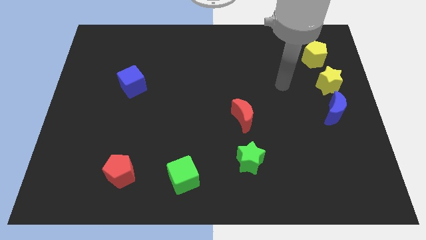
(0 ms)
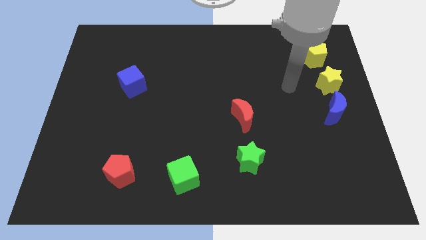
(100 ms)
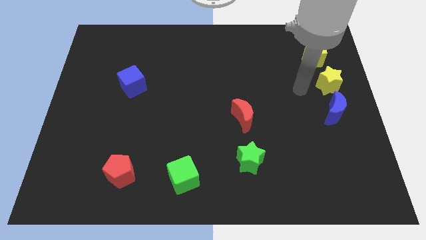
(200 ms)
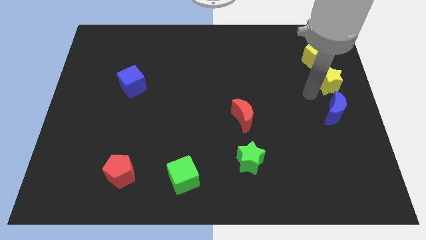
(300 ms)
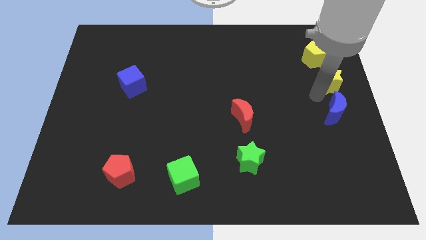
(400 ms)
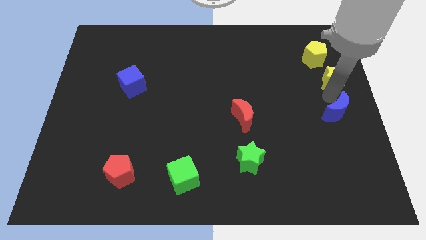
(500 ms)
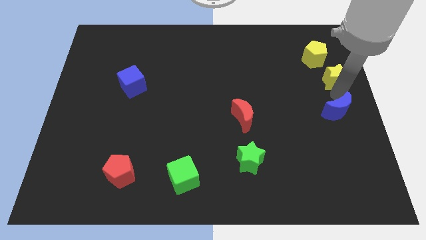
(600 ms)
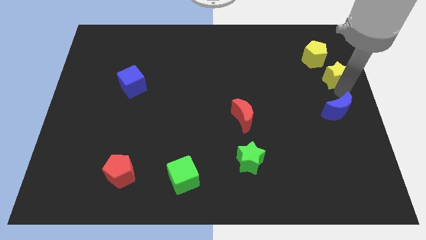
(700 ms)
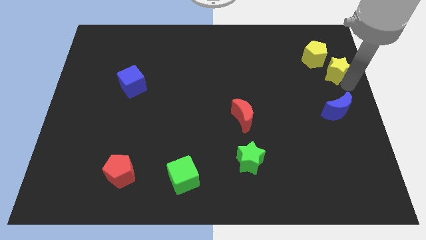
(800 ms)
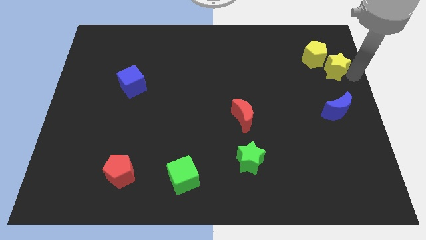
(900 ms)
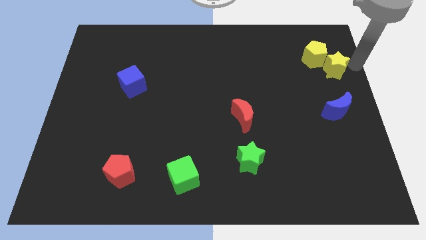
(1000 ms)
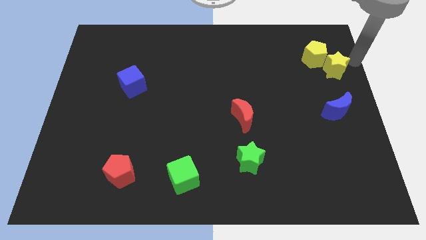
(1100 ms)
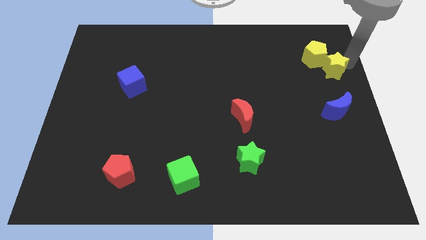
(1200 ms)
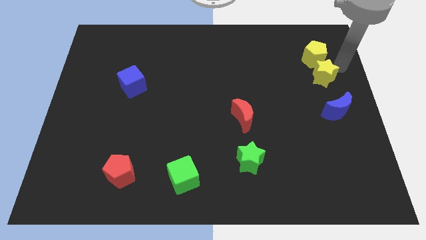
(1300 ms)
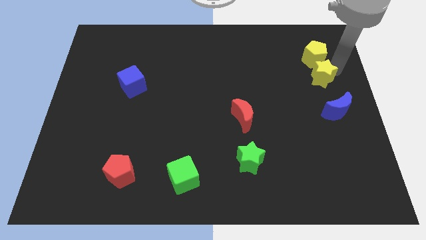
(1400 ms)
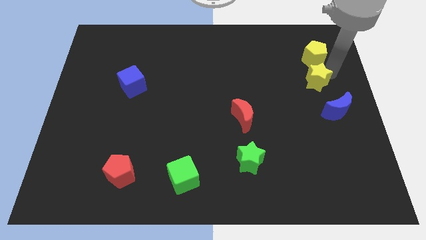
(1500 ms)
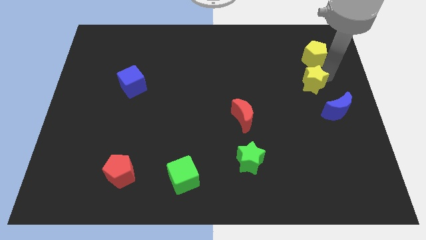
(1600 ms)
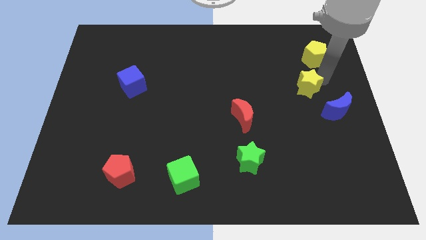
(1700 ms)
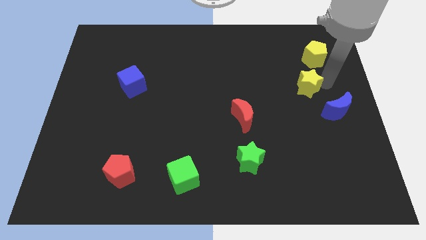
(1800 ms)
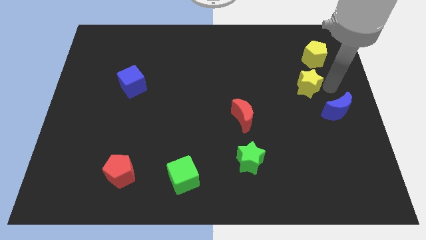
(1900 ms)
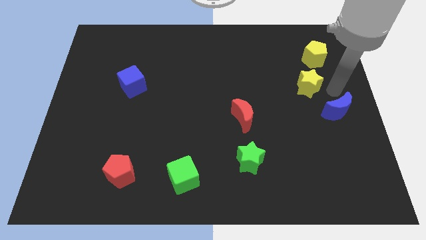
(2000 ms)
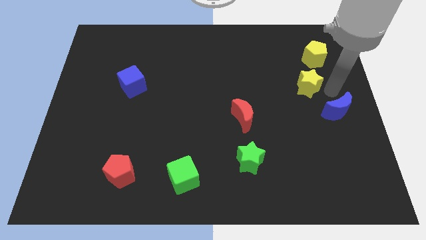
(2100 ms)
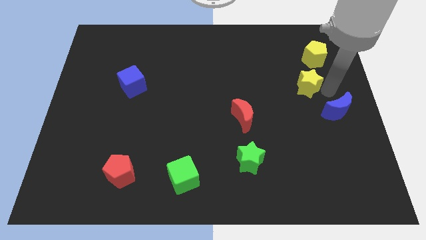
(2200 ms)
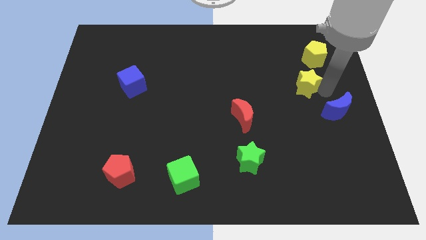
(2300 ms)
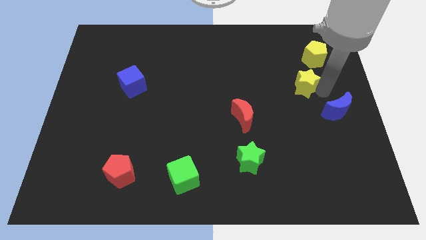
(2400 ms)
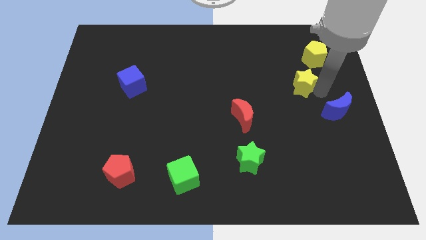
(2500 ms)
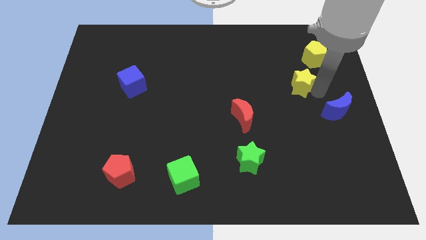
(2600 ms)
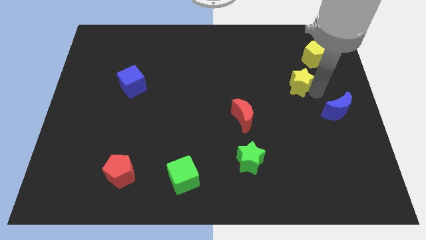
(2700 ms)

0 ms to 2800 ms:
slightly slide the yellow star left

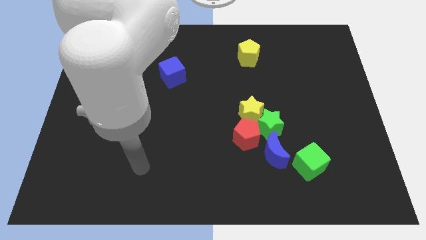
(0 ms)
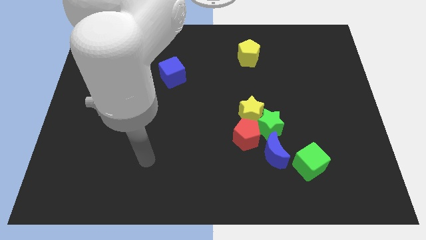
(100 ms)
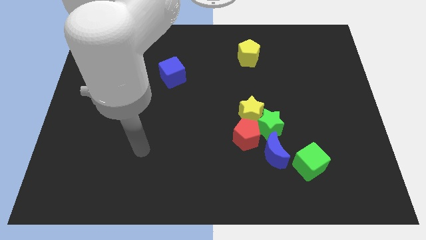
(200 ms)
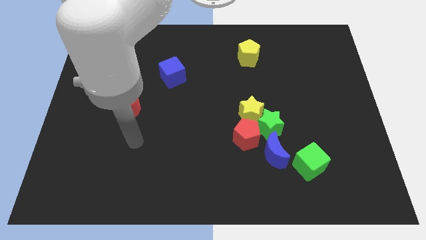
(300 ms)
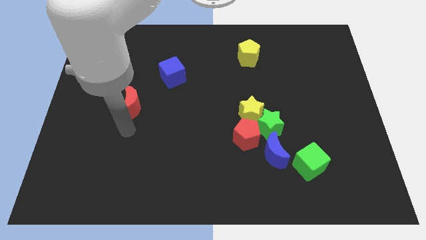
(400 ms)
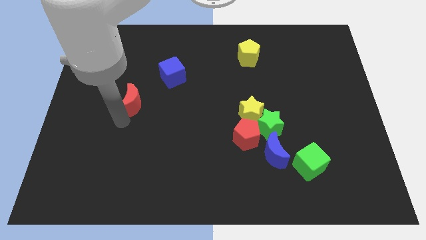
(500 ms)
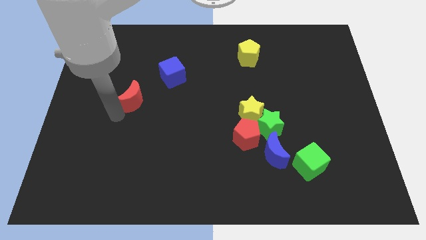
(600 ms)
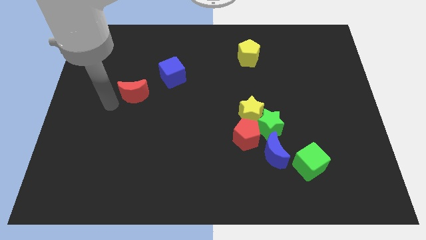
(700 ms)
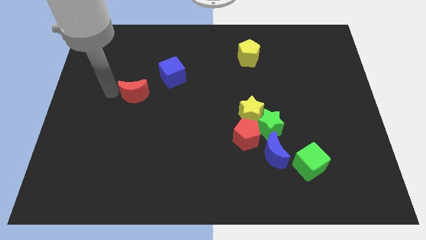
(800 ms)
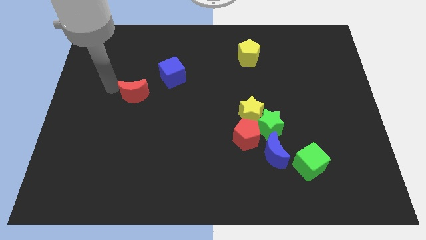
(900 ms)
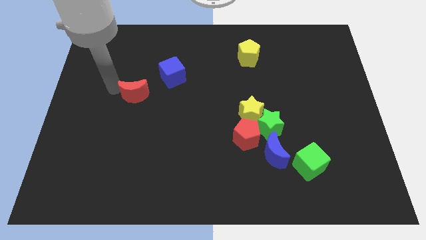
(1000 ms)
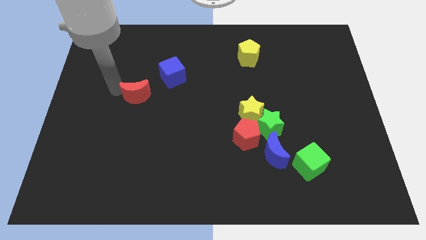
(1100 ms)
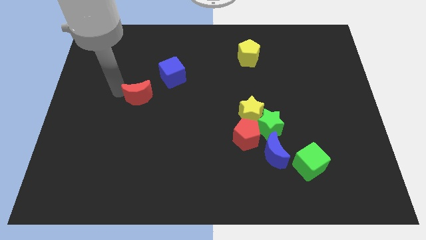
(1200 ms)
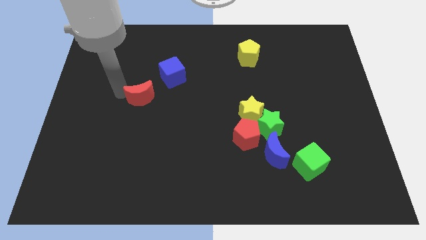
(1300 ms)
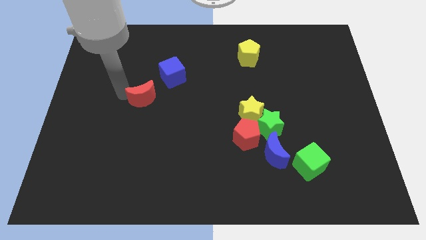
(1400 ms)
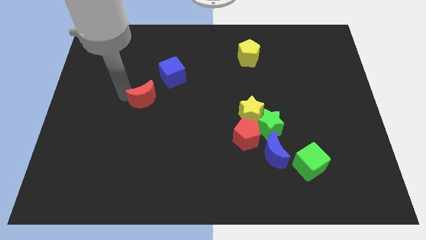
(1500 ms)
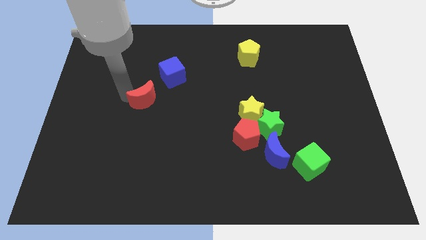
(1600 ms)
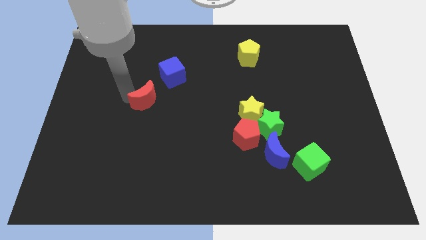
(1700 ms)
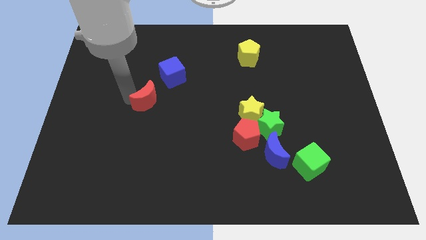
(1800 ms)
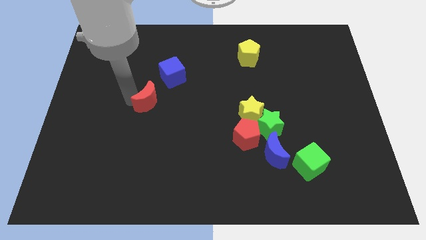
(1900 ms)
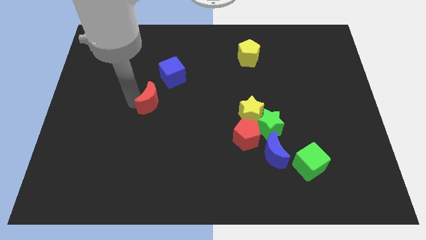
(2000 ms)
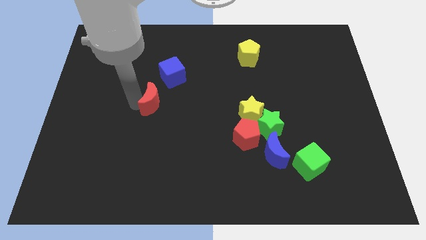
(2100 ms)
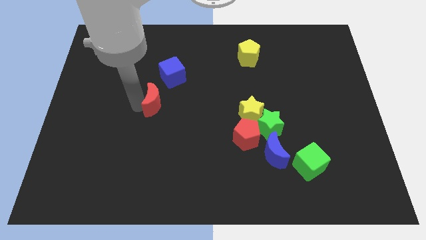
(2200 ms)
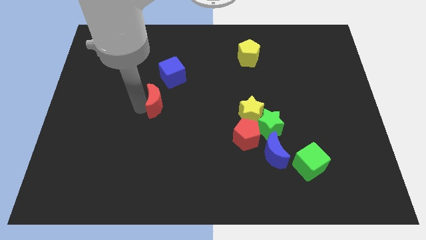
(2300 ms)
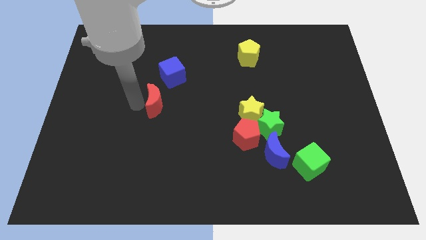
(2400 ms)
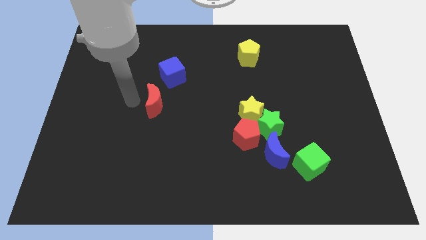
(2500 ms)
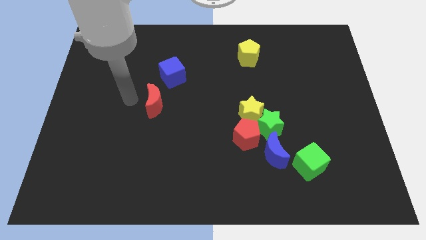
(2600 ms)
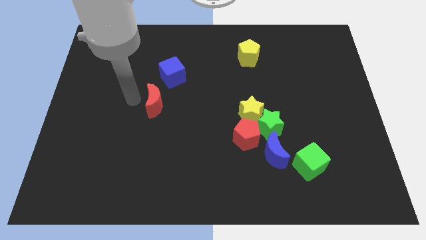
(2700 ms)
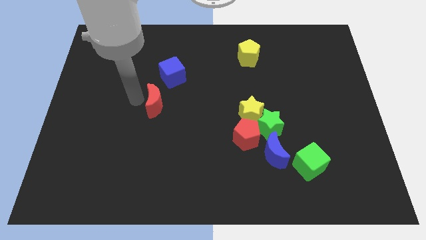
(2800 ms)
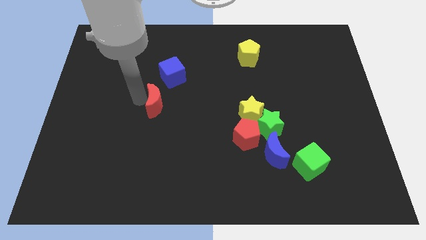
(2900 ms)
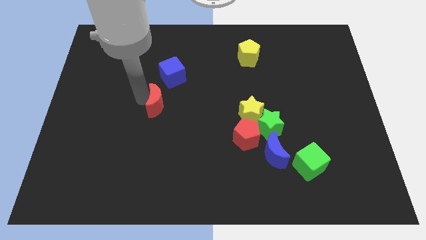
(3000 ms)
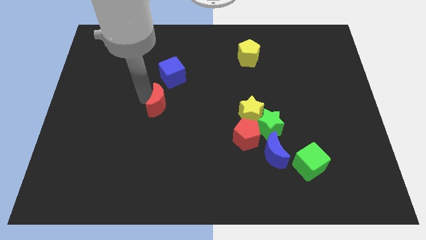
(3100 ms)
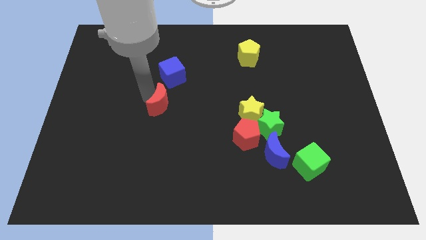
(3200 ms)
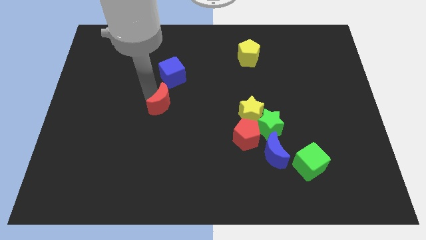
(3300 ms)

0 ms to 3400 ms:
slightly push the red moon to the right

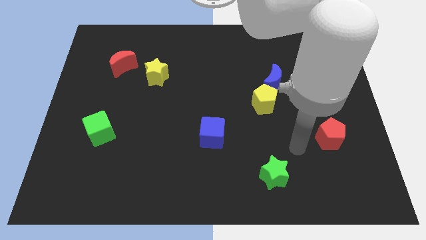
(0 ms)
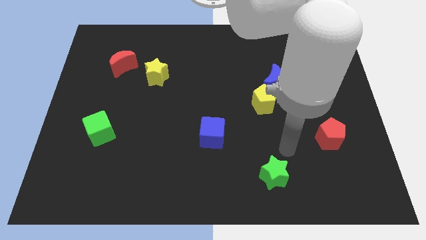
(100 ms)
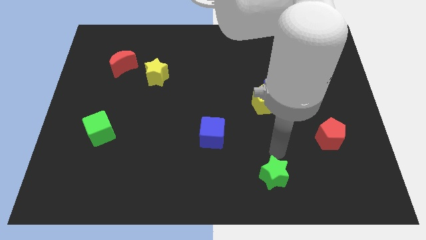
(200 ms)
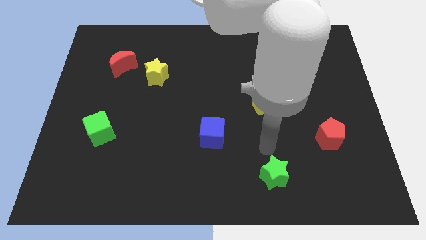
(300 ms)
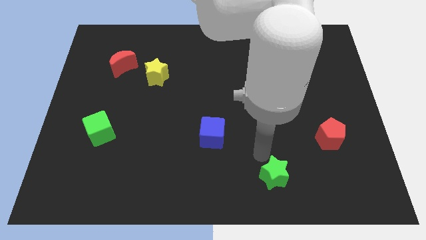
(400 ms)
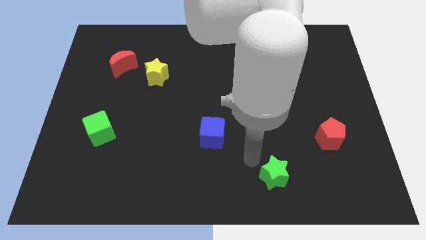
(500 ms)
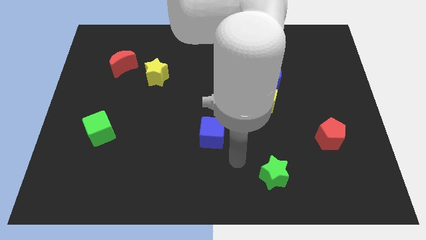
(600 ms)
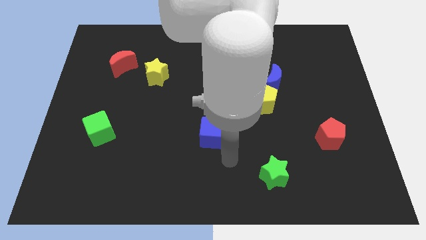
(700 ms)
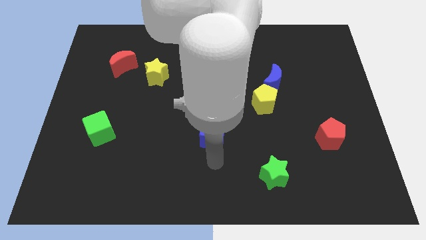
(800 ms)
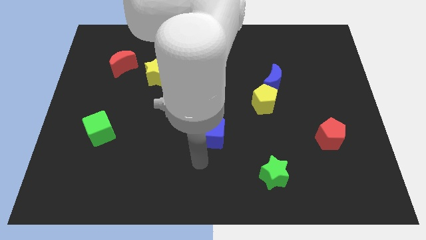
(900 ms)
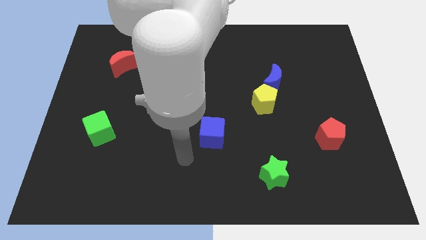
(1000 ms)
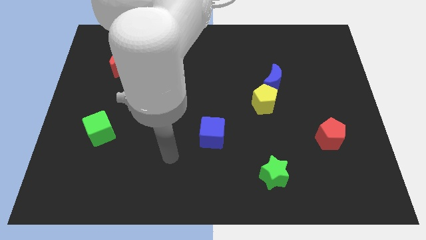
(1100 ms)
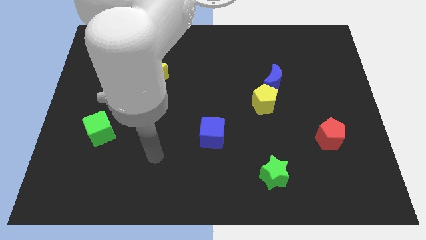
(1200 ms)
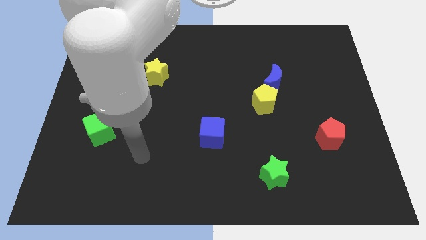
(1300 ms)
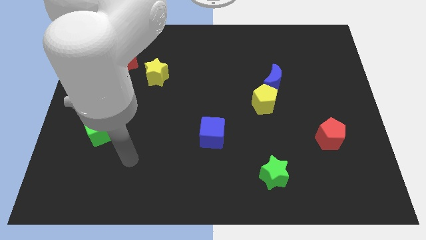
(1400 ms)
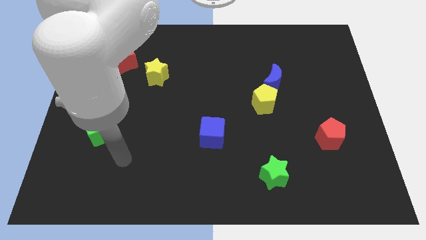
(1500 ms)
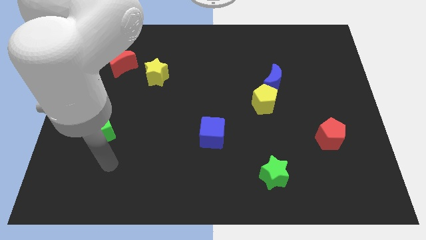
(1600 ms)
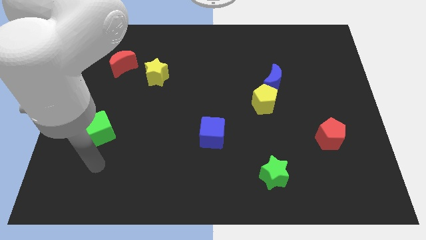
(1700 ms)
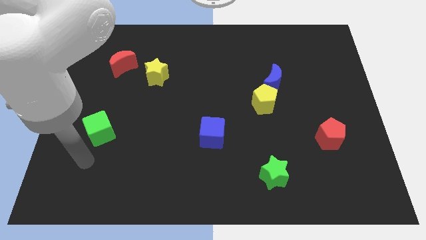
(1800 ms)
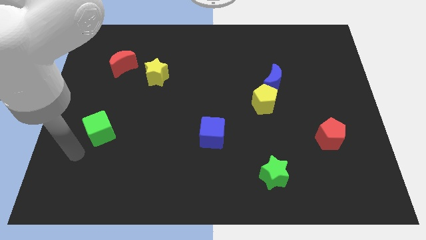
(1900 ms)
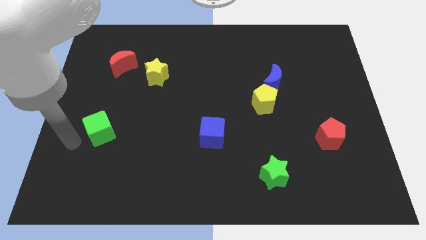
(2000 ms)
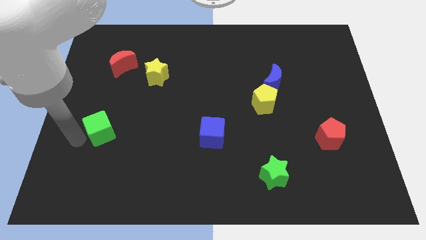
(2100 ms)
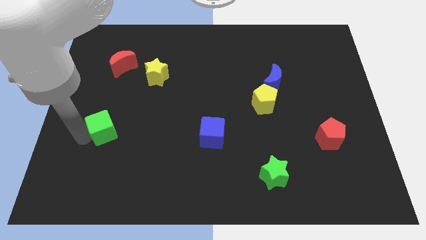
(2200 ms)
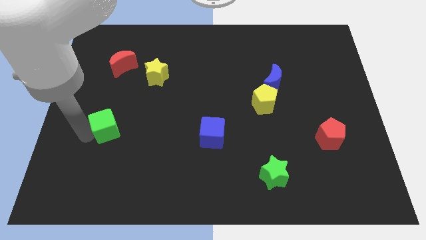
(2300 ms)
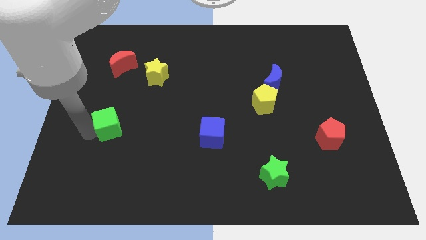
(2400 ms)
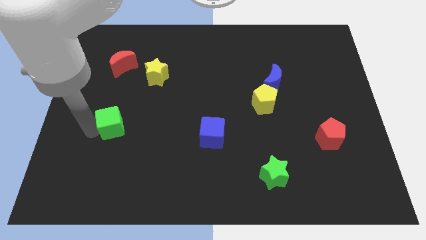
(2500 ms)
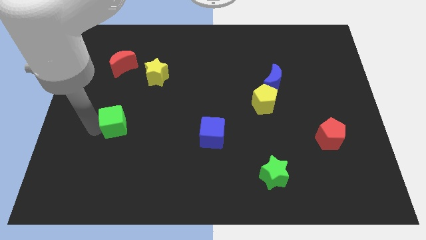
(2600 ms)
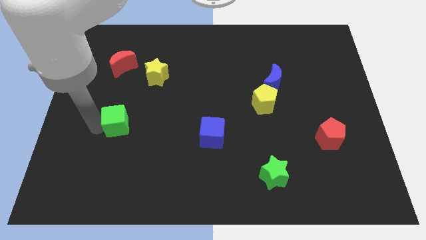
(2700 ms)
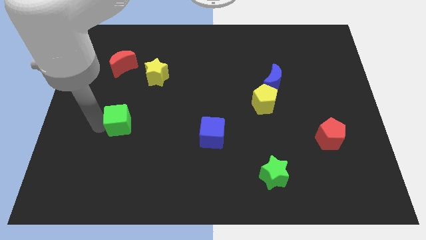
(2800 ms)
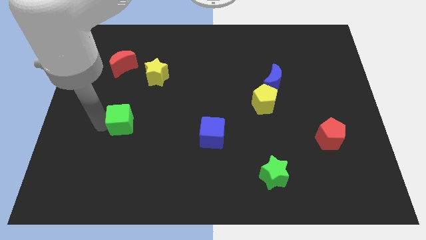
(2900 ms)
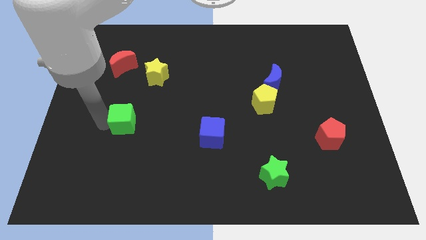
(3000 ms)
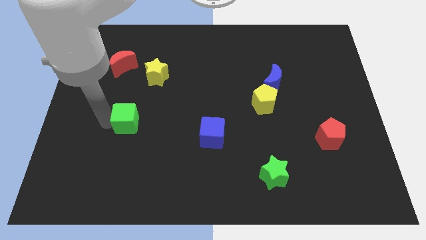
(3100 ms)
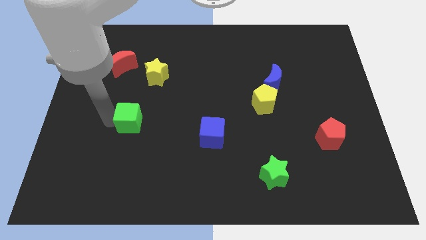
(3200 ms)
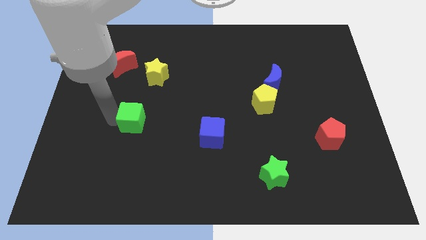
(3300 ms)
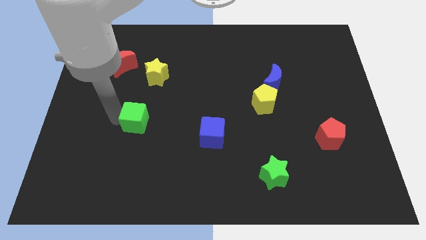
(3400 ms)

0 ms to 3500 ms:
move the green cube a little to the right
